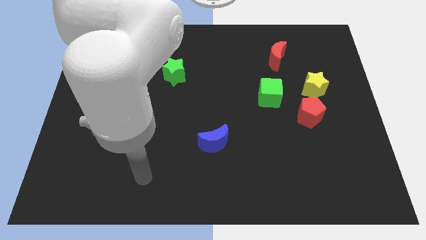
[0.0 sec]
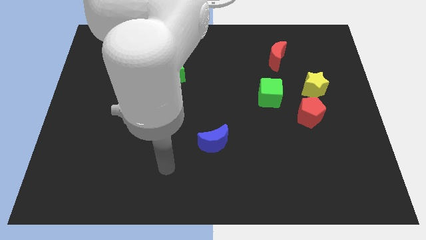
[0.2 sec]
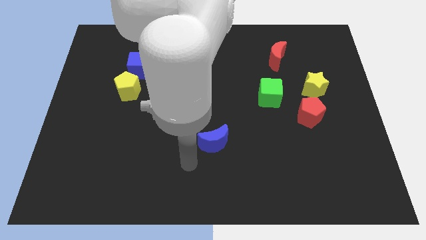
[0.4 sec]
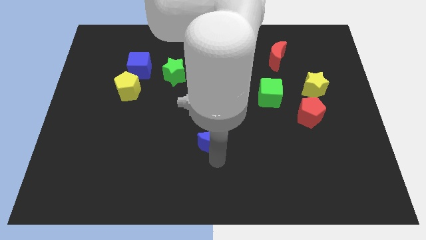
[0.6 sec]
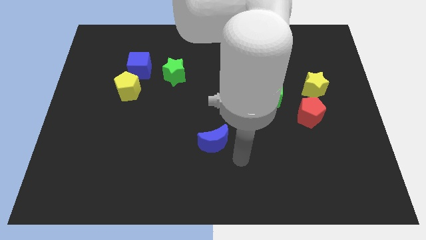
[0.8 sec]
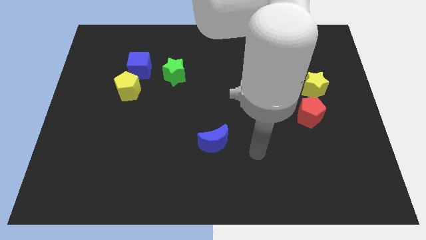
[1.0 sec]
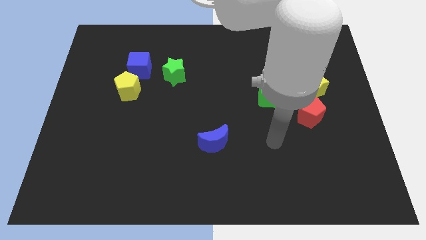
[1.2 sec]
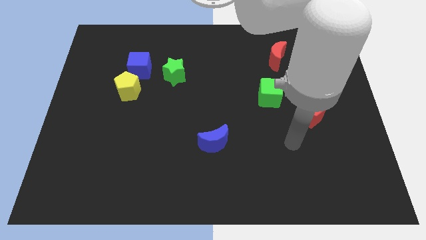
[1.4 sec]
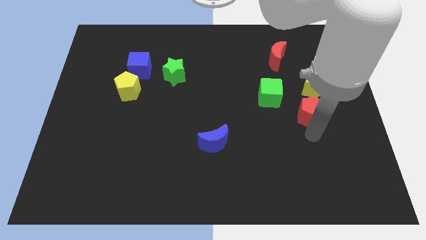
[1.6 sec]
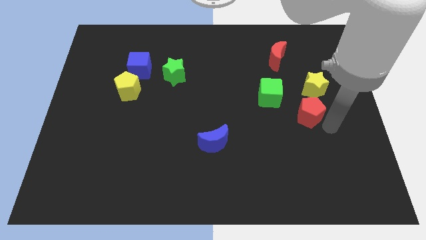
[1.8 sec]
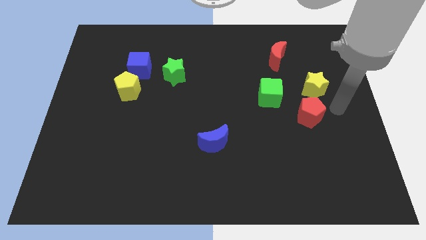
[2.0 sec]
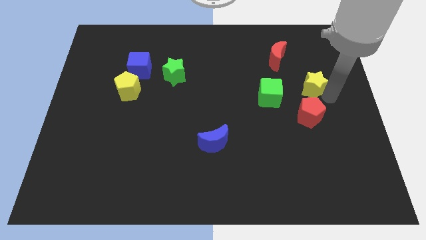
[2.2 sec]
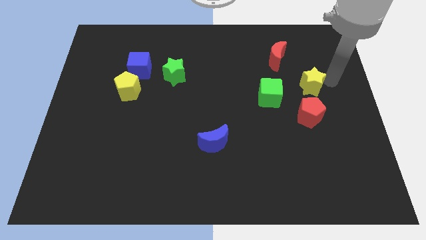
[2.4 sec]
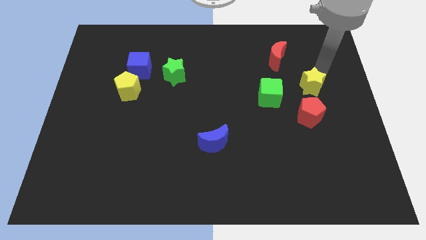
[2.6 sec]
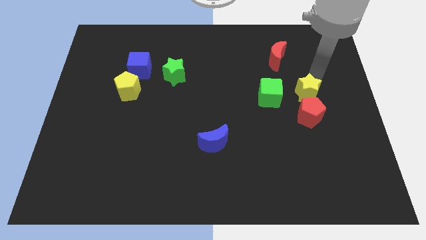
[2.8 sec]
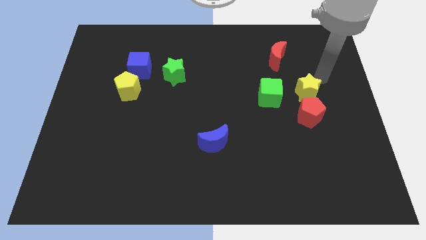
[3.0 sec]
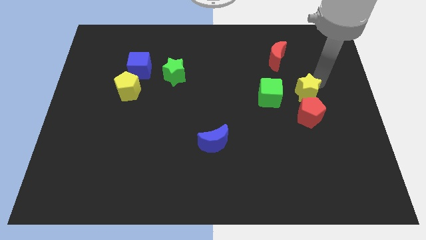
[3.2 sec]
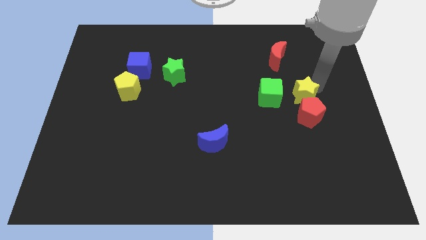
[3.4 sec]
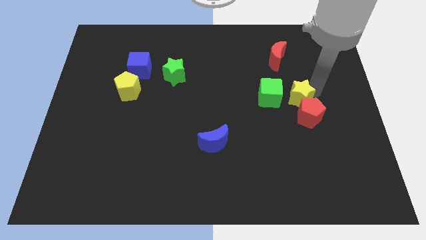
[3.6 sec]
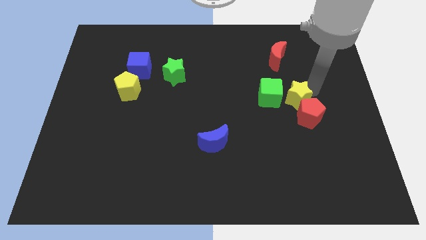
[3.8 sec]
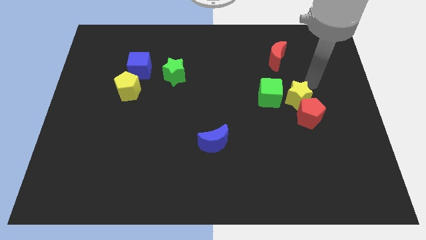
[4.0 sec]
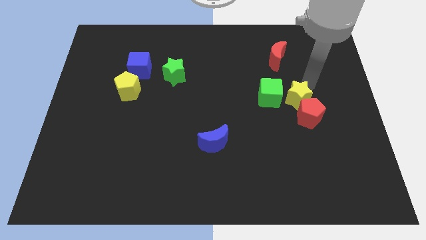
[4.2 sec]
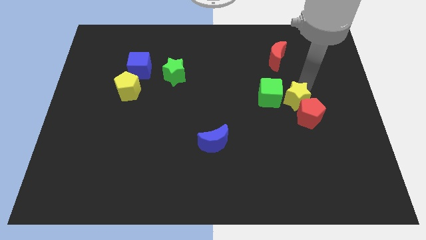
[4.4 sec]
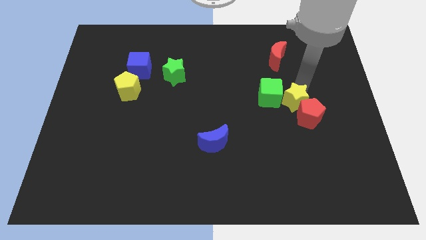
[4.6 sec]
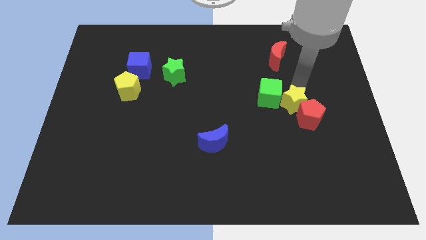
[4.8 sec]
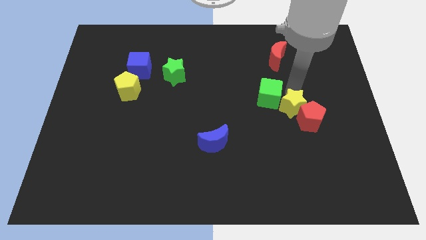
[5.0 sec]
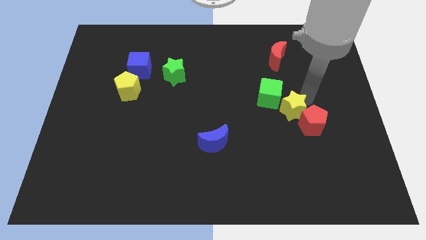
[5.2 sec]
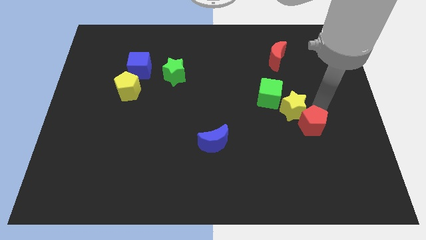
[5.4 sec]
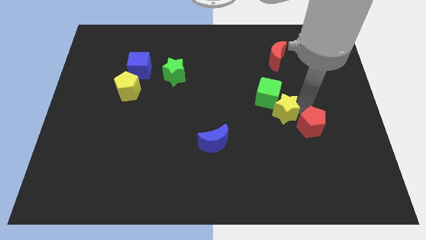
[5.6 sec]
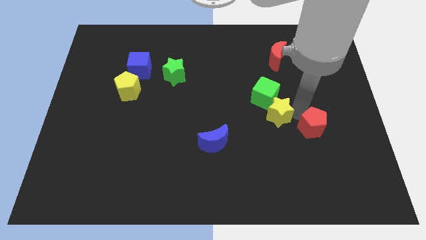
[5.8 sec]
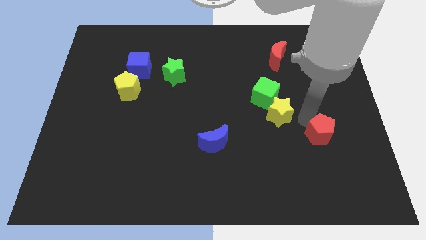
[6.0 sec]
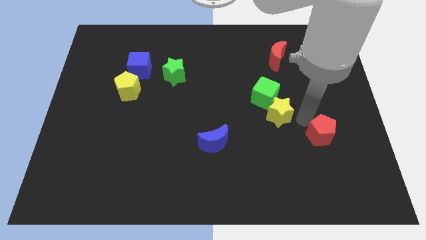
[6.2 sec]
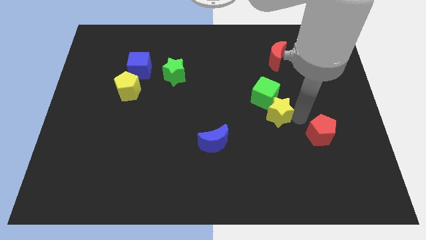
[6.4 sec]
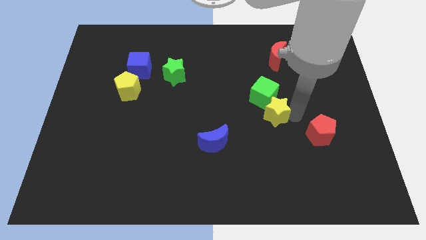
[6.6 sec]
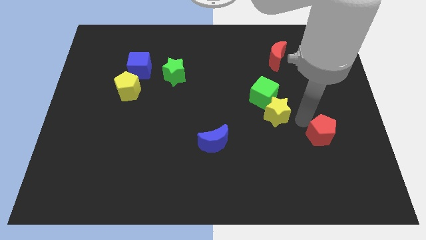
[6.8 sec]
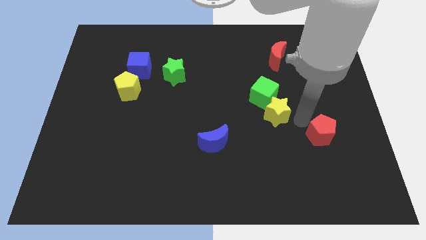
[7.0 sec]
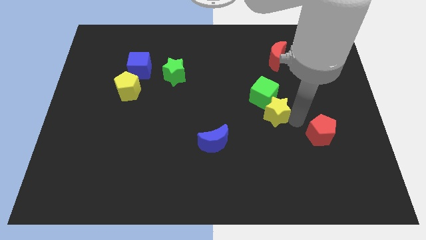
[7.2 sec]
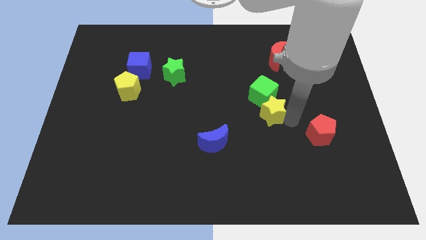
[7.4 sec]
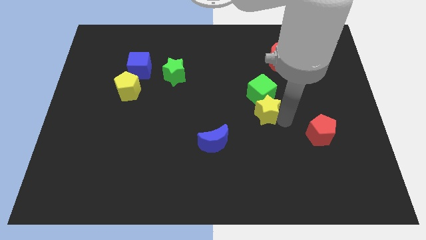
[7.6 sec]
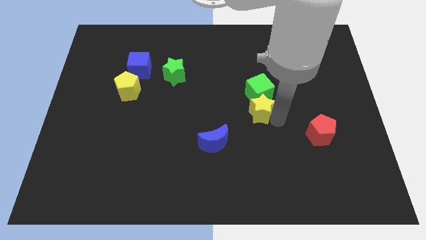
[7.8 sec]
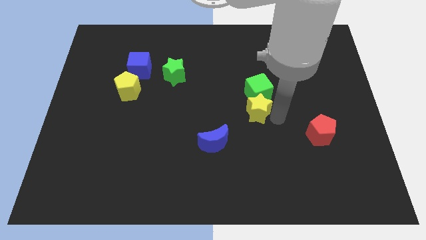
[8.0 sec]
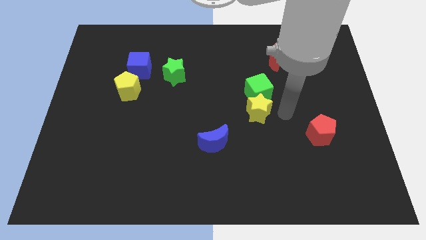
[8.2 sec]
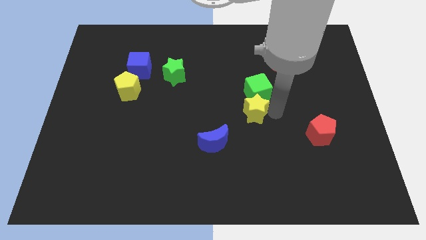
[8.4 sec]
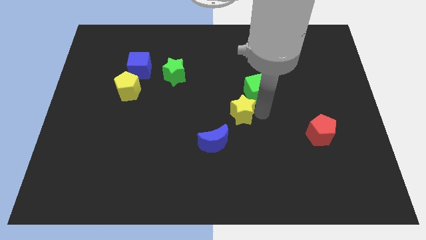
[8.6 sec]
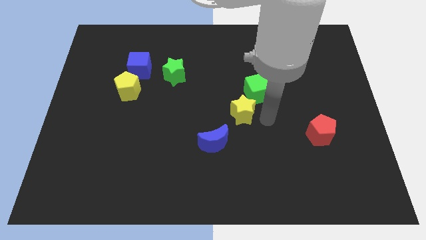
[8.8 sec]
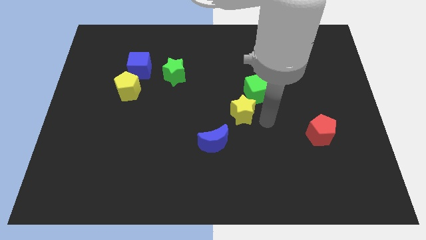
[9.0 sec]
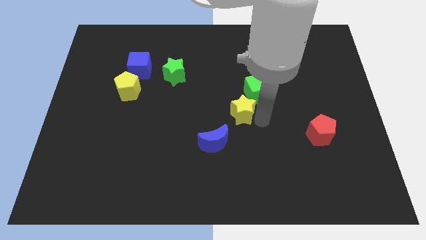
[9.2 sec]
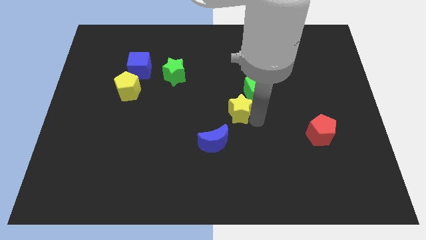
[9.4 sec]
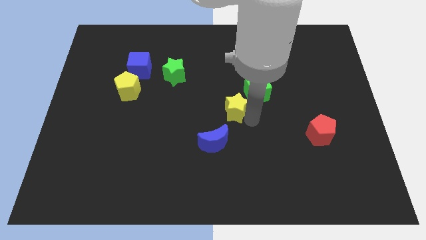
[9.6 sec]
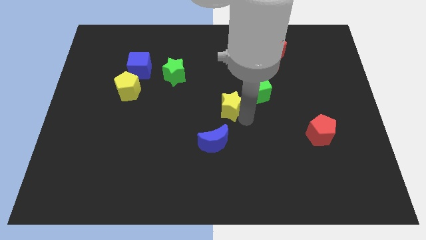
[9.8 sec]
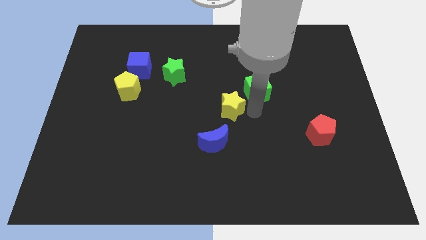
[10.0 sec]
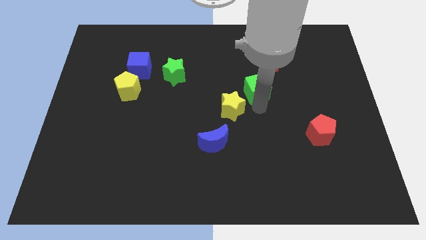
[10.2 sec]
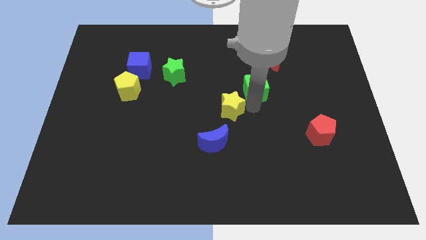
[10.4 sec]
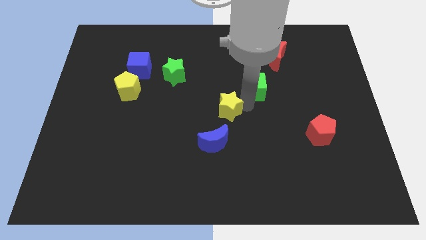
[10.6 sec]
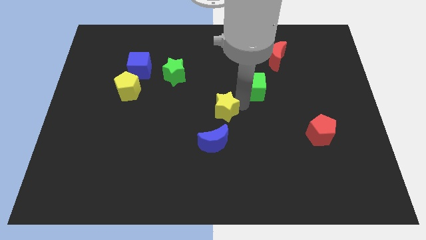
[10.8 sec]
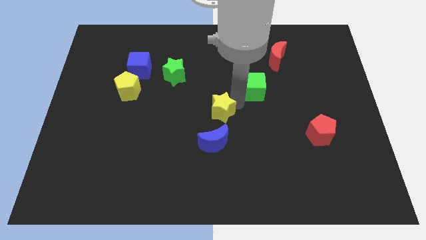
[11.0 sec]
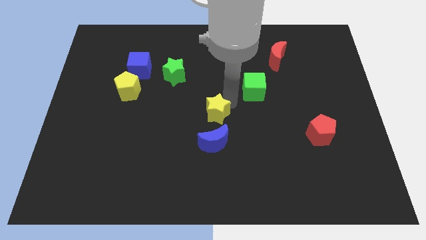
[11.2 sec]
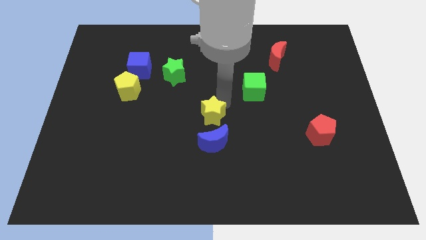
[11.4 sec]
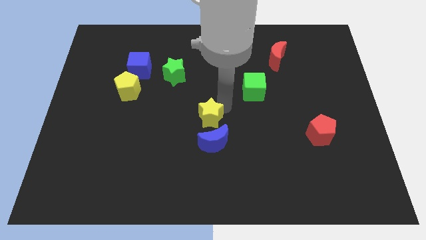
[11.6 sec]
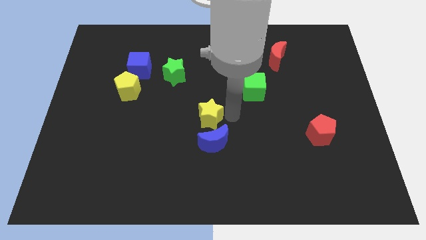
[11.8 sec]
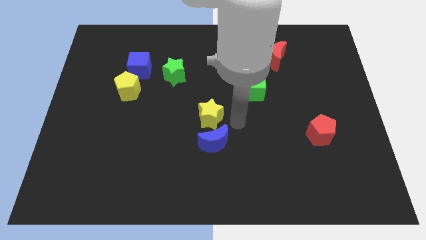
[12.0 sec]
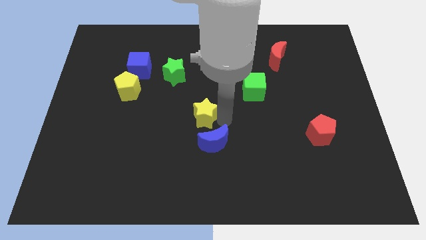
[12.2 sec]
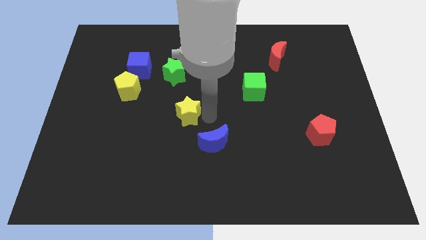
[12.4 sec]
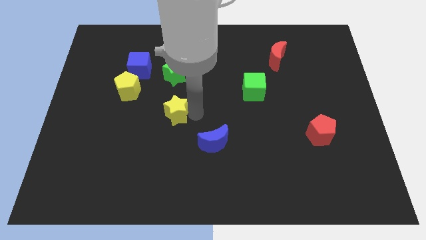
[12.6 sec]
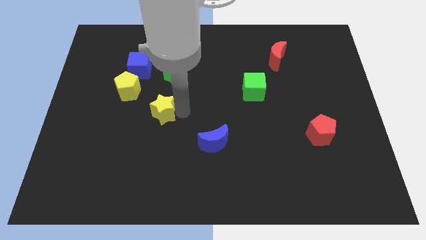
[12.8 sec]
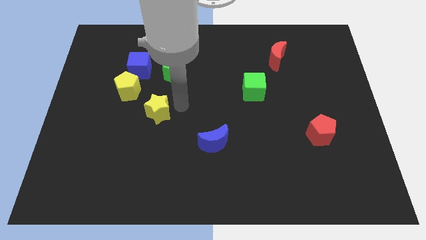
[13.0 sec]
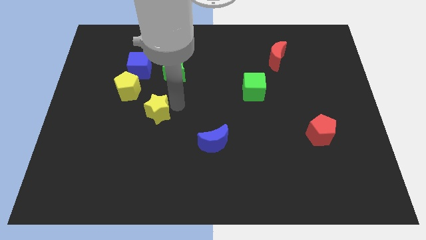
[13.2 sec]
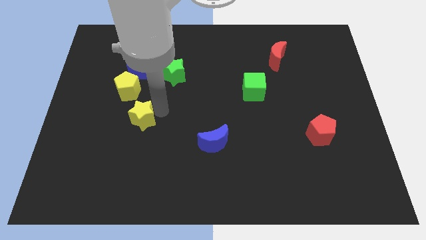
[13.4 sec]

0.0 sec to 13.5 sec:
push the yellow star to the bottom side of the yellow pentagon
